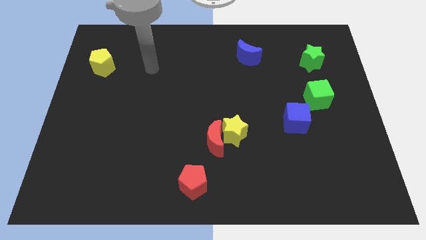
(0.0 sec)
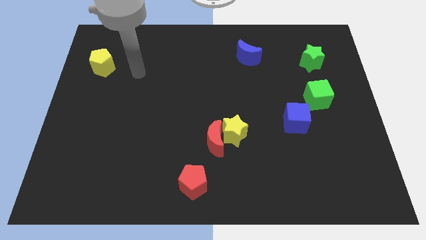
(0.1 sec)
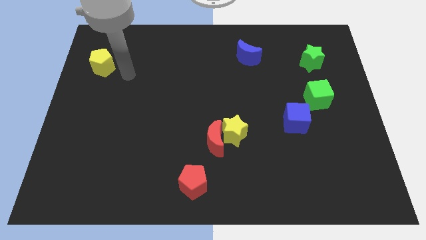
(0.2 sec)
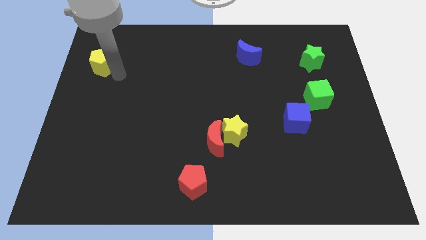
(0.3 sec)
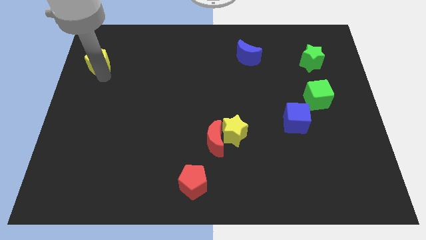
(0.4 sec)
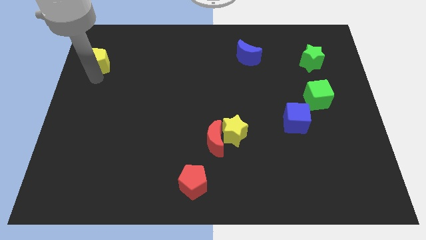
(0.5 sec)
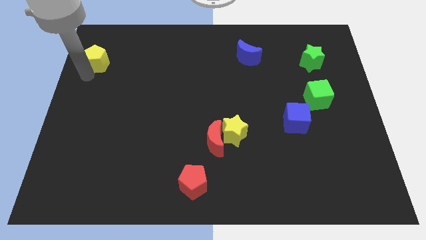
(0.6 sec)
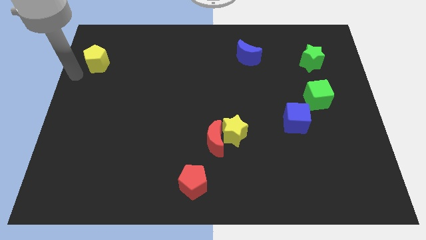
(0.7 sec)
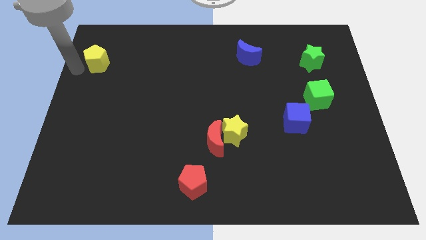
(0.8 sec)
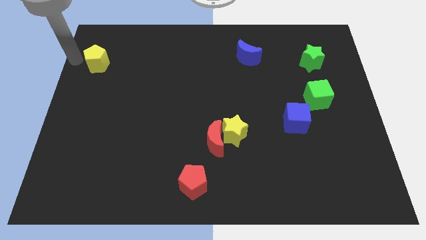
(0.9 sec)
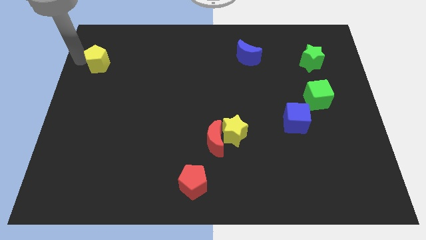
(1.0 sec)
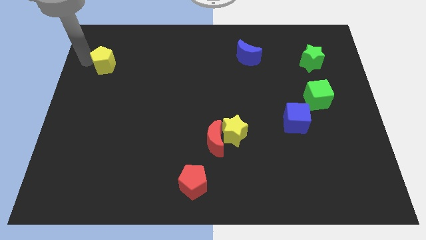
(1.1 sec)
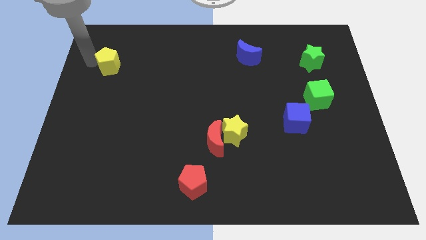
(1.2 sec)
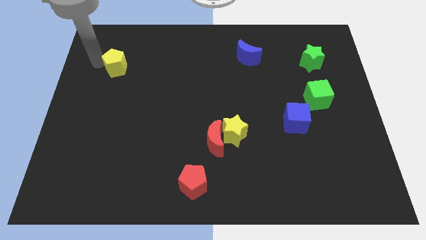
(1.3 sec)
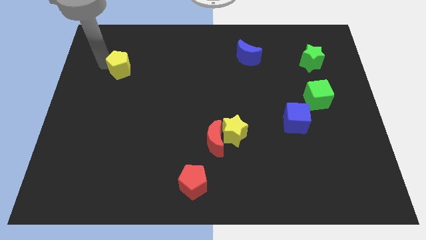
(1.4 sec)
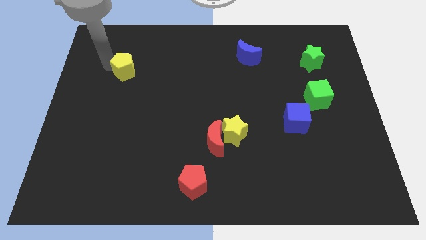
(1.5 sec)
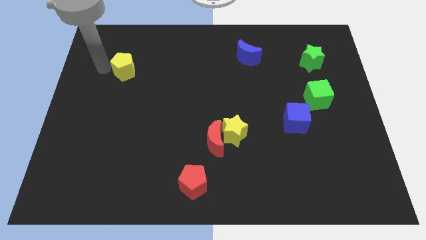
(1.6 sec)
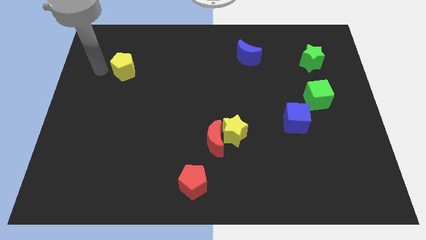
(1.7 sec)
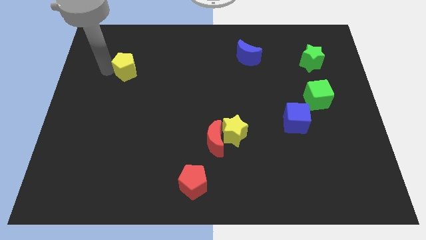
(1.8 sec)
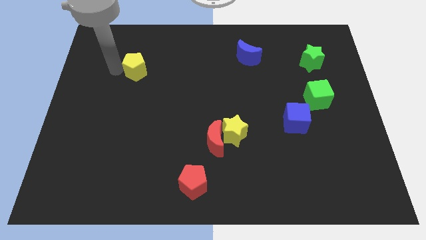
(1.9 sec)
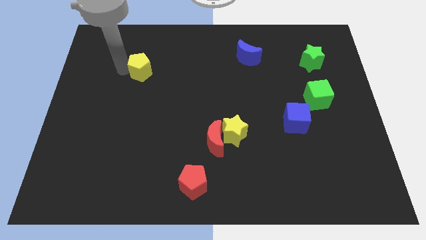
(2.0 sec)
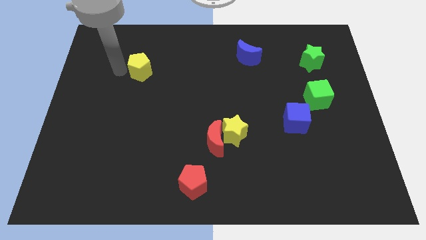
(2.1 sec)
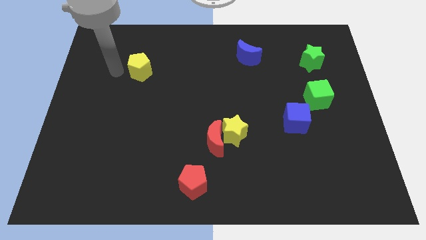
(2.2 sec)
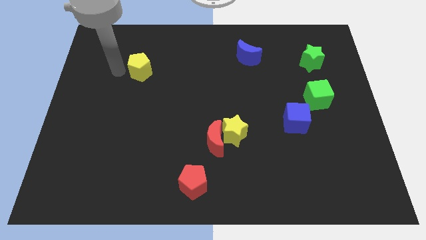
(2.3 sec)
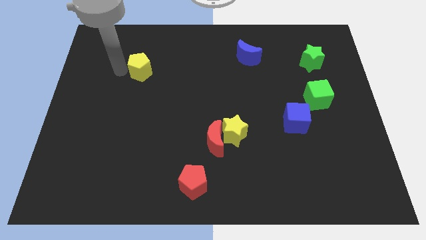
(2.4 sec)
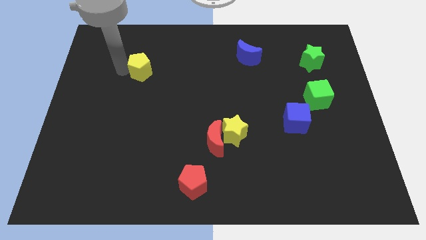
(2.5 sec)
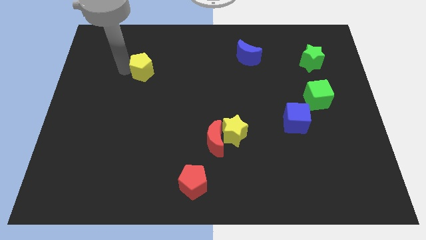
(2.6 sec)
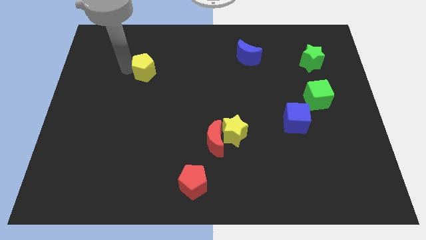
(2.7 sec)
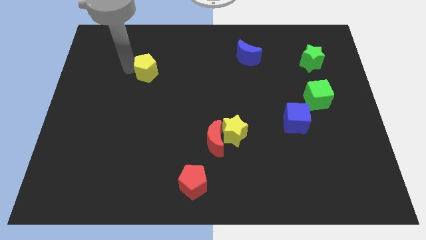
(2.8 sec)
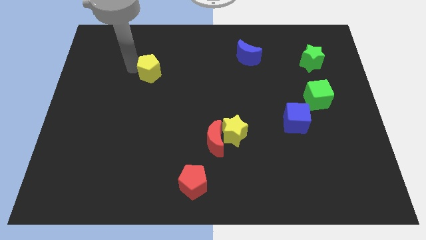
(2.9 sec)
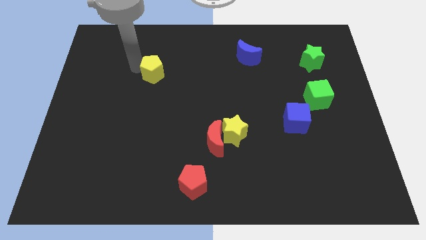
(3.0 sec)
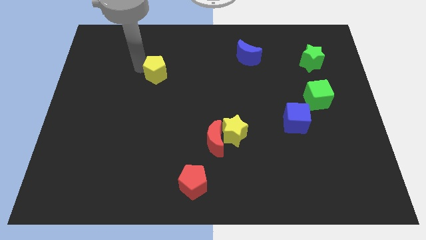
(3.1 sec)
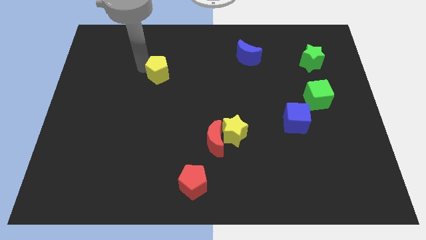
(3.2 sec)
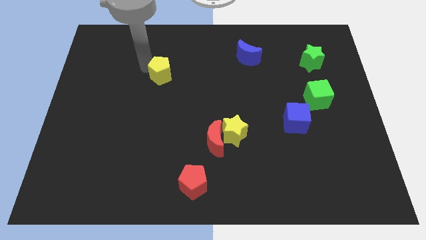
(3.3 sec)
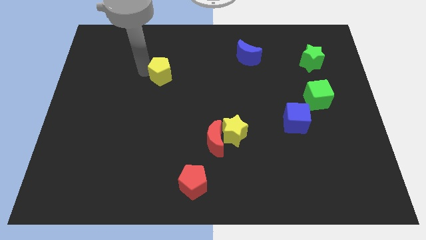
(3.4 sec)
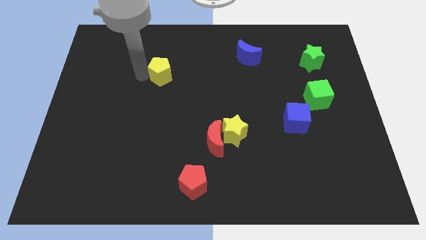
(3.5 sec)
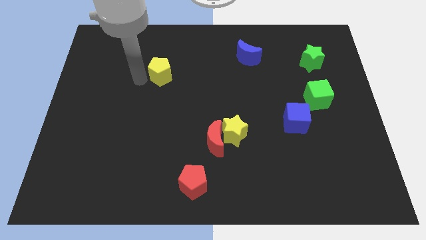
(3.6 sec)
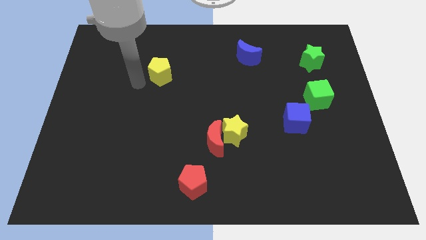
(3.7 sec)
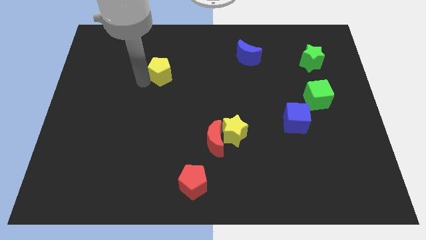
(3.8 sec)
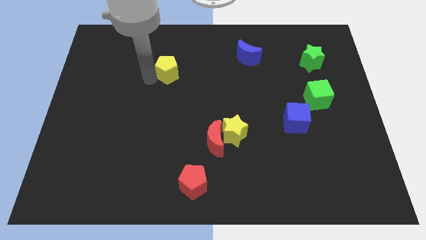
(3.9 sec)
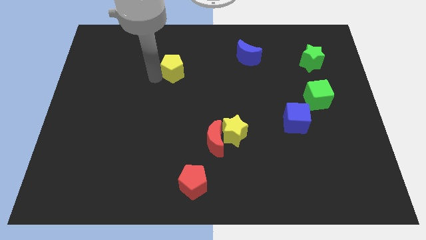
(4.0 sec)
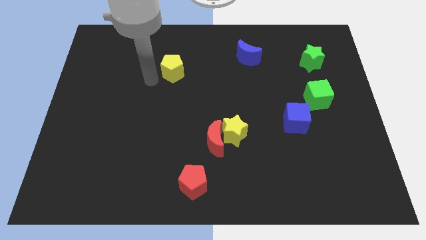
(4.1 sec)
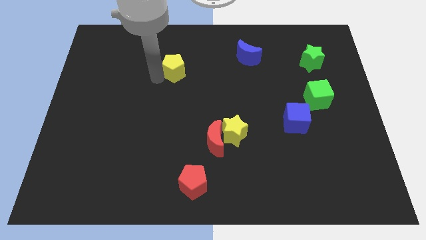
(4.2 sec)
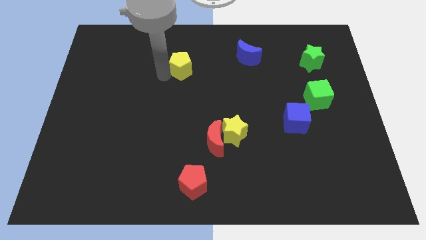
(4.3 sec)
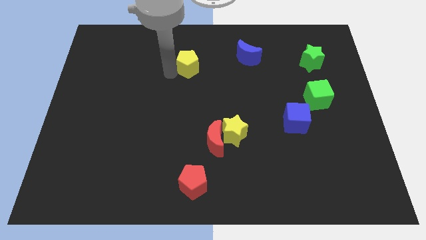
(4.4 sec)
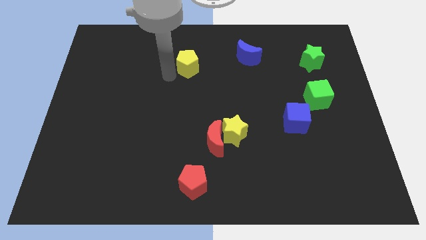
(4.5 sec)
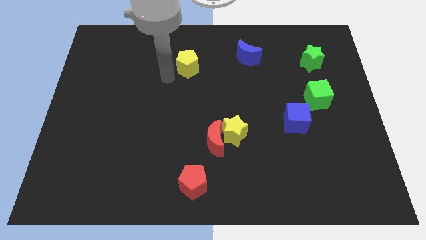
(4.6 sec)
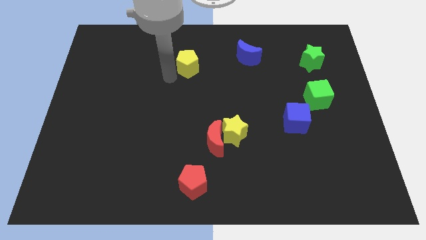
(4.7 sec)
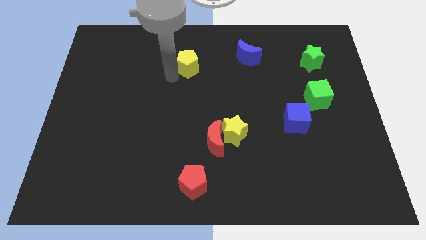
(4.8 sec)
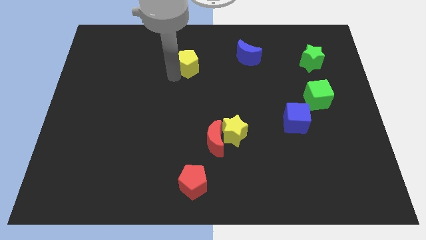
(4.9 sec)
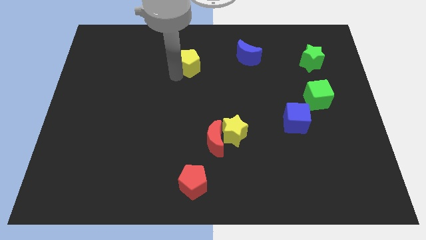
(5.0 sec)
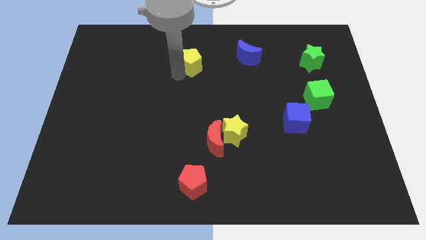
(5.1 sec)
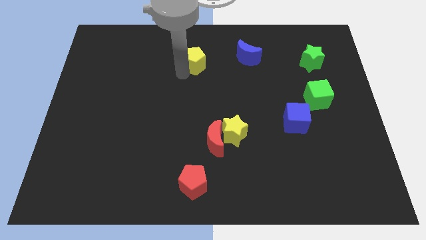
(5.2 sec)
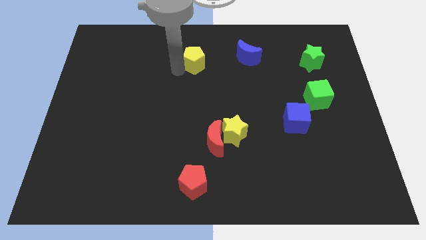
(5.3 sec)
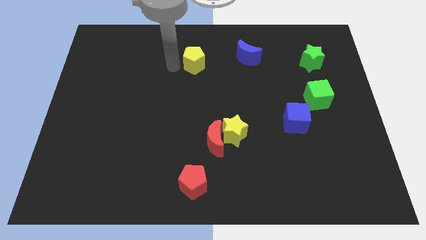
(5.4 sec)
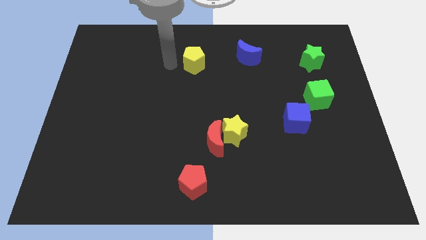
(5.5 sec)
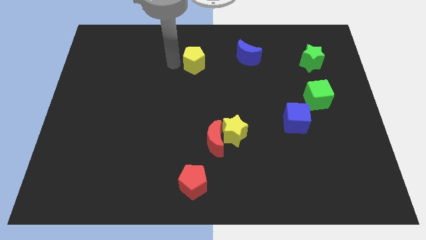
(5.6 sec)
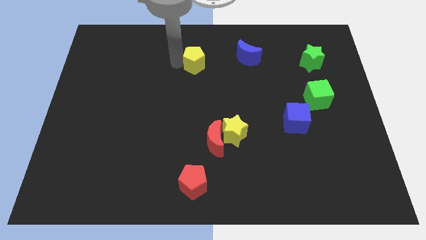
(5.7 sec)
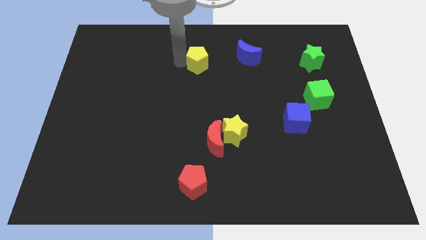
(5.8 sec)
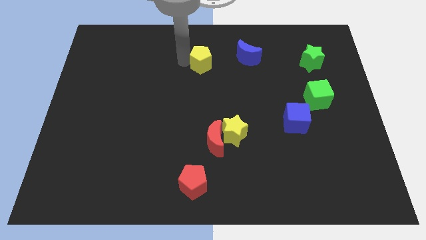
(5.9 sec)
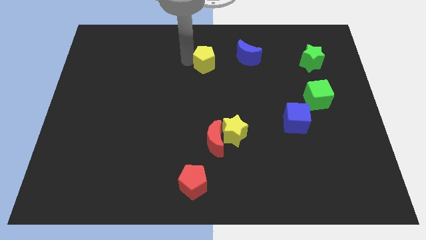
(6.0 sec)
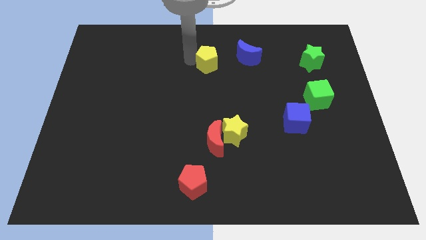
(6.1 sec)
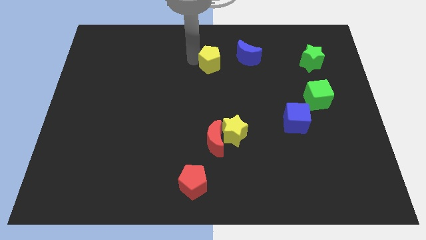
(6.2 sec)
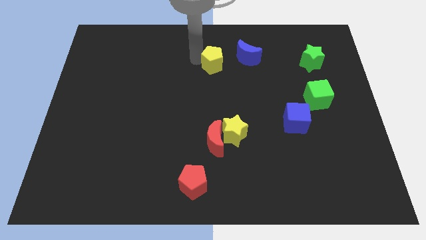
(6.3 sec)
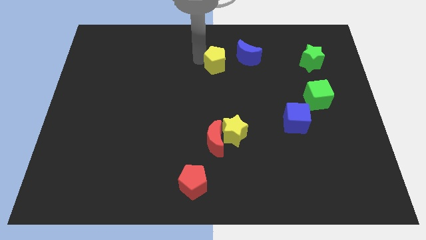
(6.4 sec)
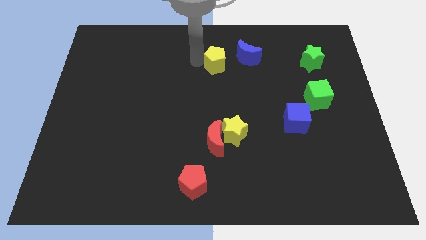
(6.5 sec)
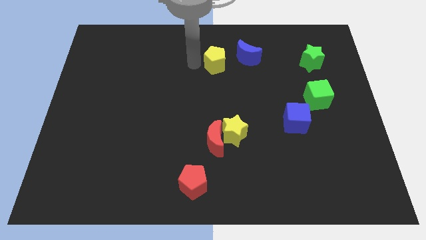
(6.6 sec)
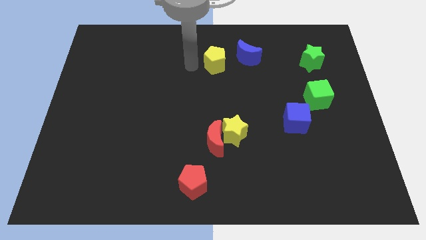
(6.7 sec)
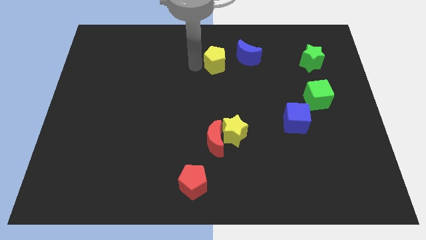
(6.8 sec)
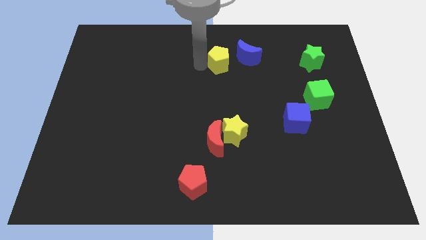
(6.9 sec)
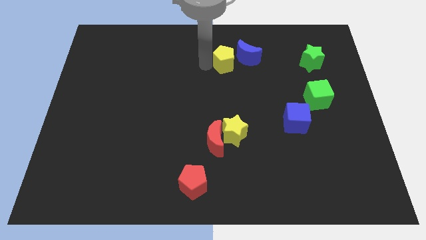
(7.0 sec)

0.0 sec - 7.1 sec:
put the yellow pentagon towards the blue moon
